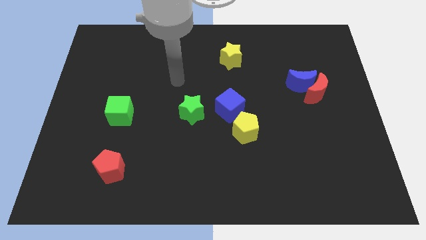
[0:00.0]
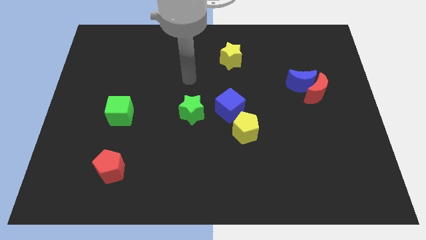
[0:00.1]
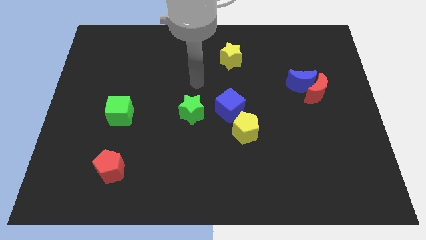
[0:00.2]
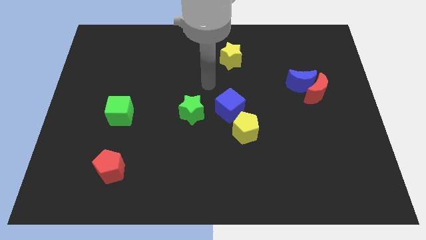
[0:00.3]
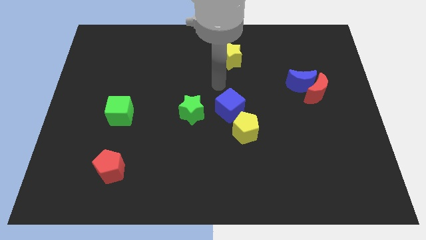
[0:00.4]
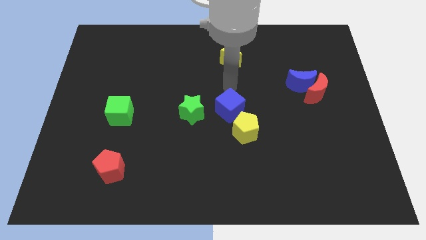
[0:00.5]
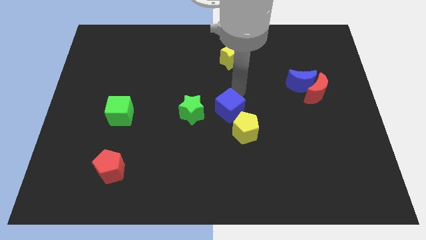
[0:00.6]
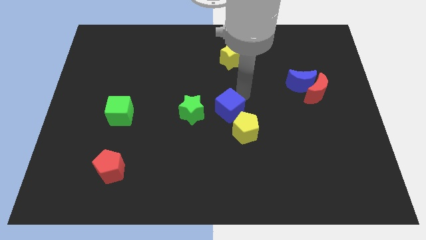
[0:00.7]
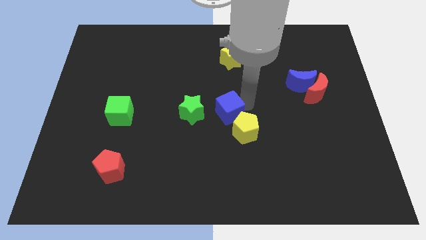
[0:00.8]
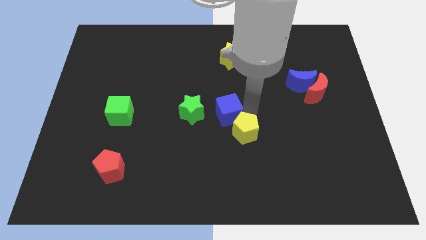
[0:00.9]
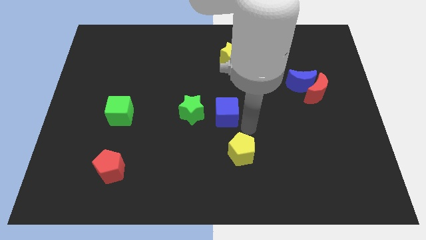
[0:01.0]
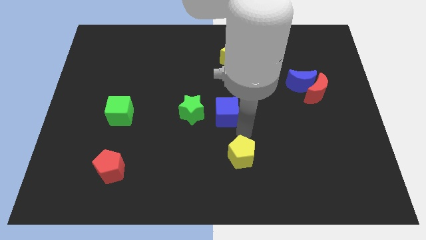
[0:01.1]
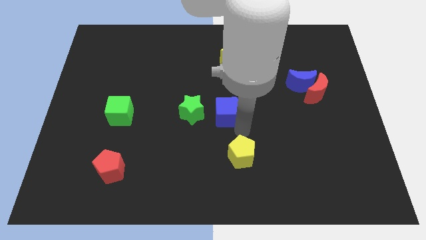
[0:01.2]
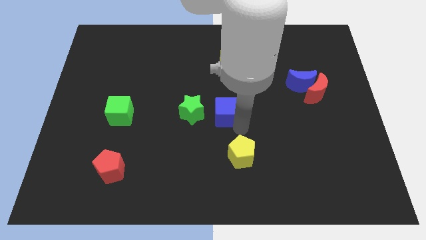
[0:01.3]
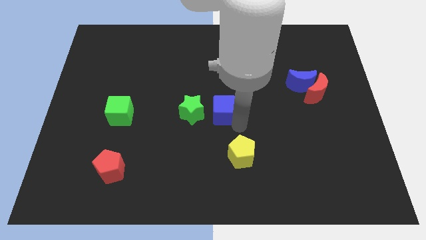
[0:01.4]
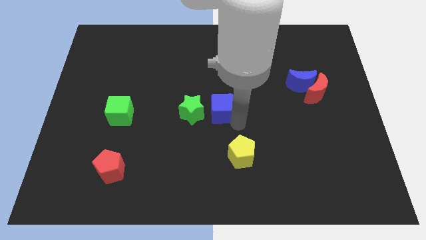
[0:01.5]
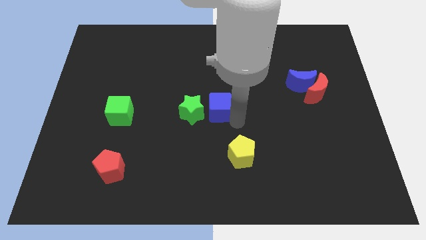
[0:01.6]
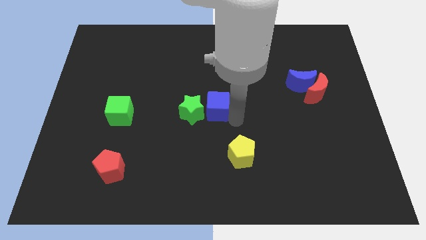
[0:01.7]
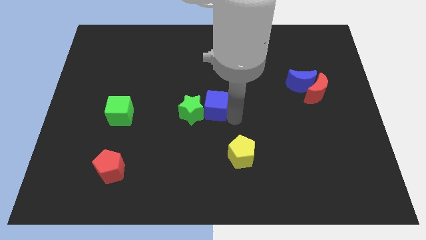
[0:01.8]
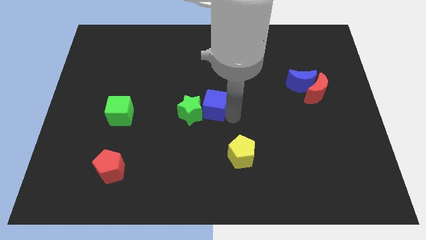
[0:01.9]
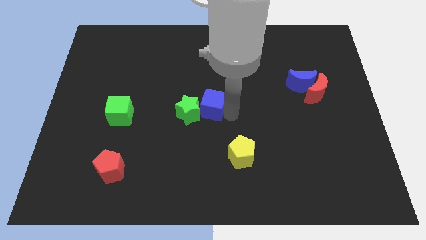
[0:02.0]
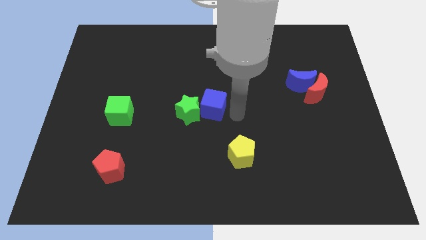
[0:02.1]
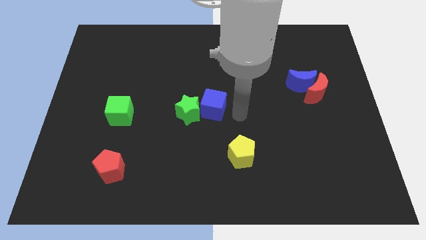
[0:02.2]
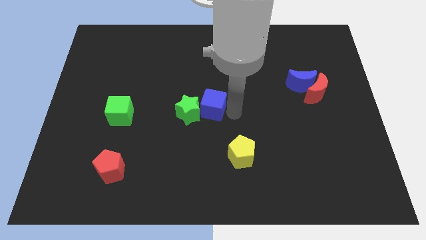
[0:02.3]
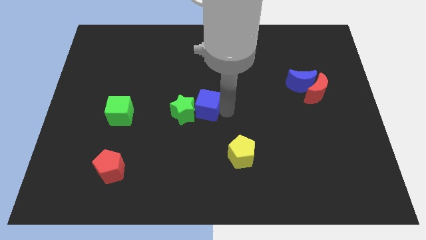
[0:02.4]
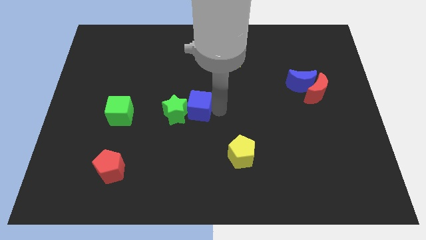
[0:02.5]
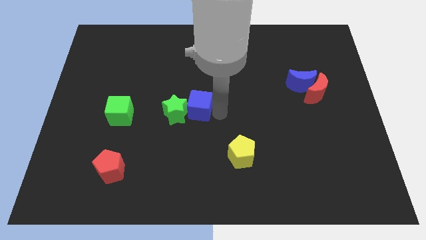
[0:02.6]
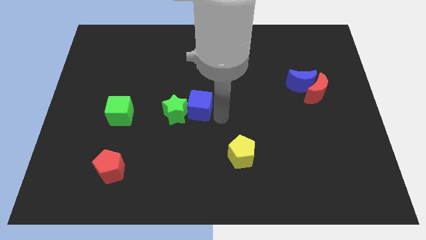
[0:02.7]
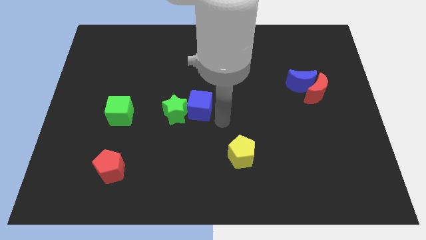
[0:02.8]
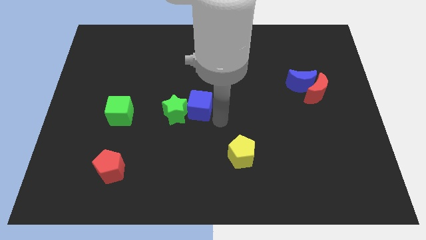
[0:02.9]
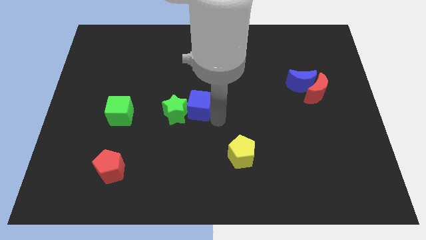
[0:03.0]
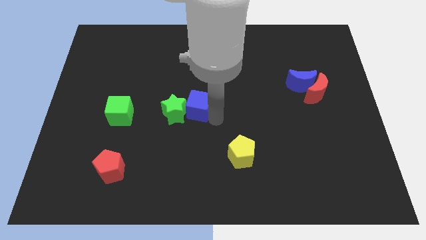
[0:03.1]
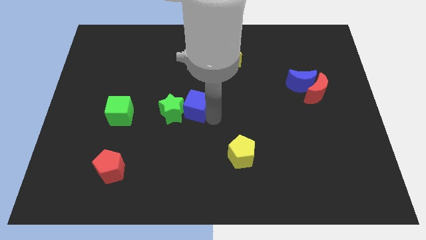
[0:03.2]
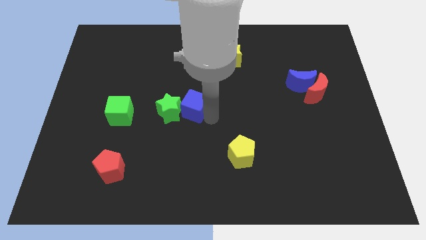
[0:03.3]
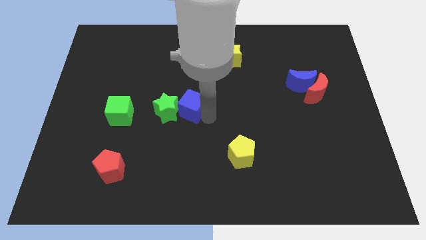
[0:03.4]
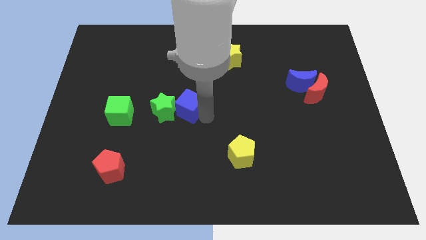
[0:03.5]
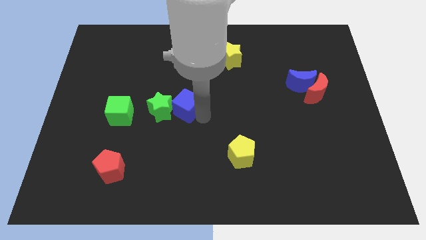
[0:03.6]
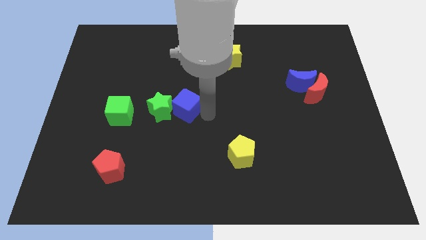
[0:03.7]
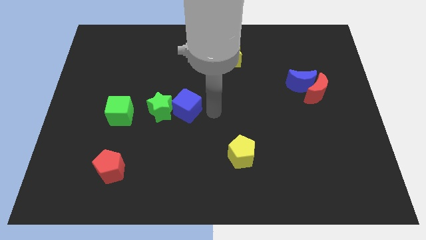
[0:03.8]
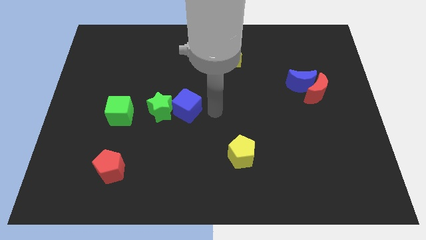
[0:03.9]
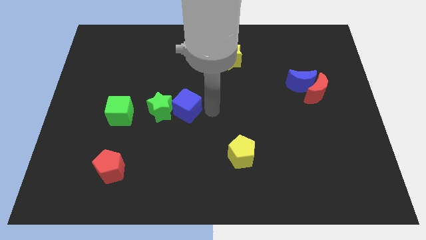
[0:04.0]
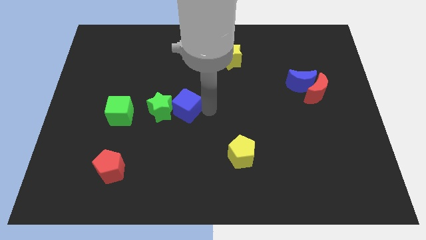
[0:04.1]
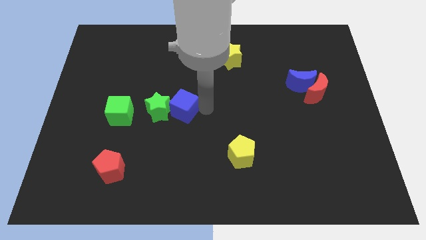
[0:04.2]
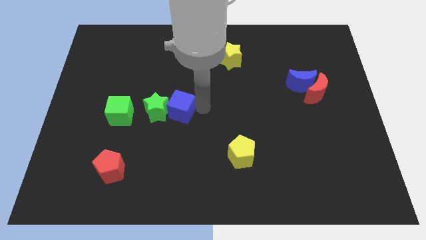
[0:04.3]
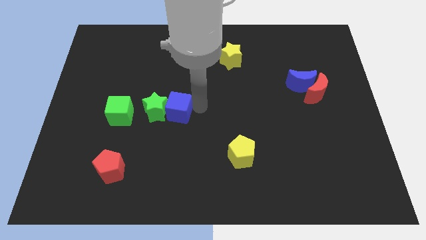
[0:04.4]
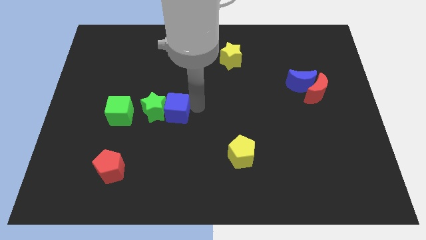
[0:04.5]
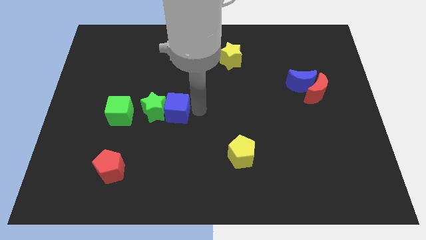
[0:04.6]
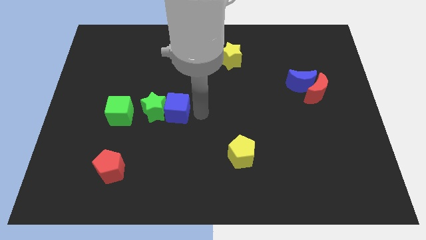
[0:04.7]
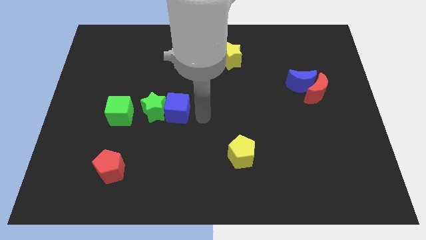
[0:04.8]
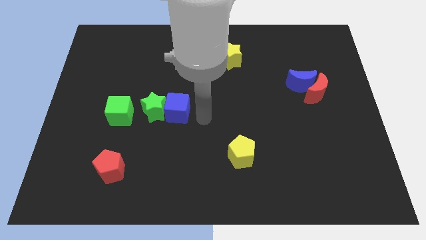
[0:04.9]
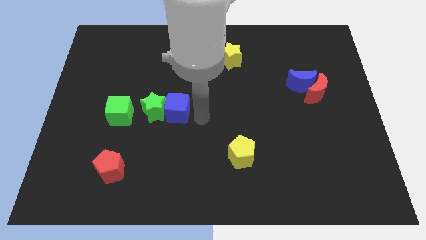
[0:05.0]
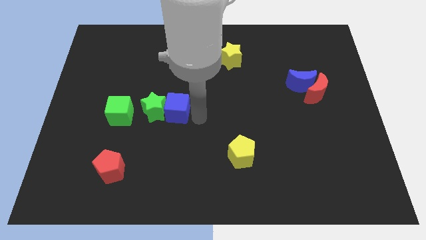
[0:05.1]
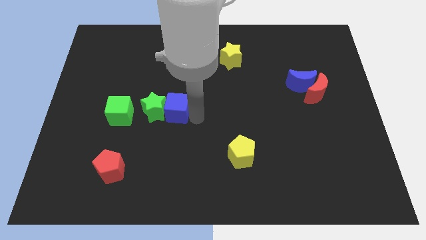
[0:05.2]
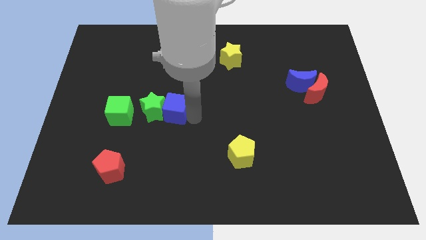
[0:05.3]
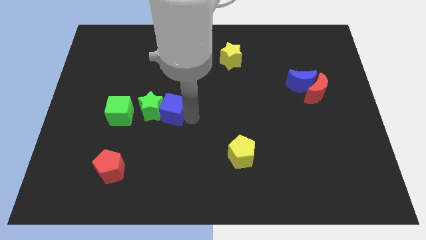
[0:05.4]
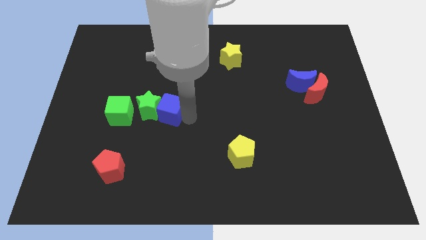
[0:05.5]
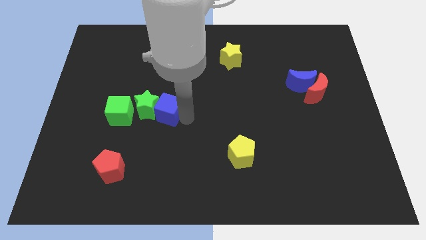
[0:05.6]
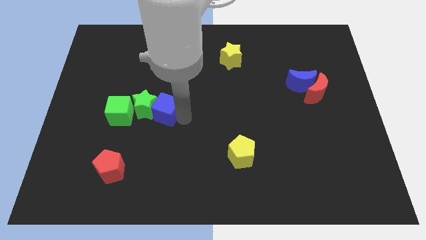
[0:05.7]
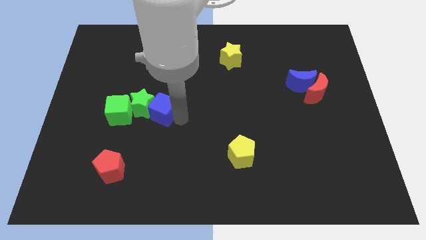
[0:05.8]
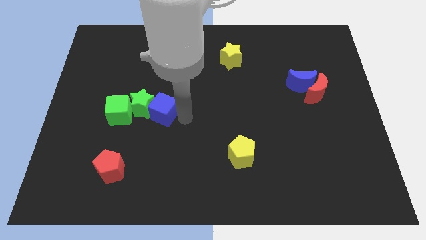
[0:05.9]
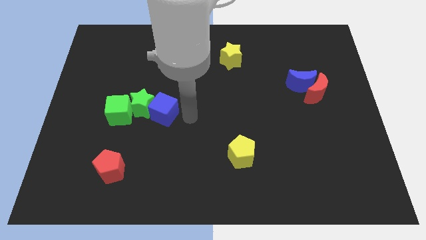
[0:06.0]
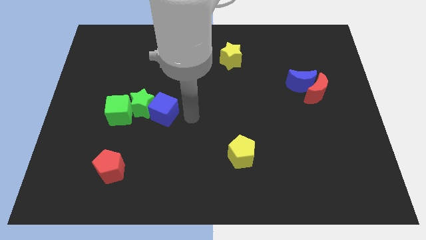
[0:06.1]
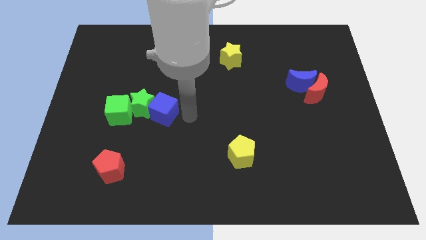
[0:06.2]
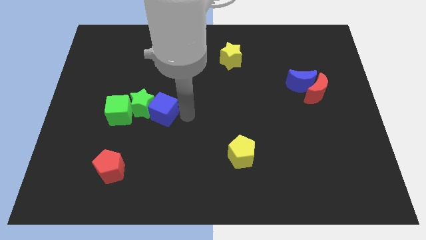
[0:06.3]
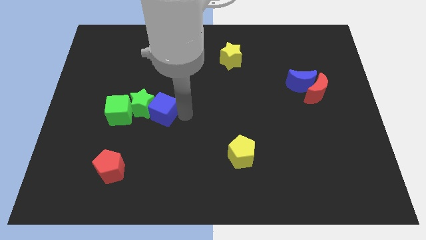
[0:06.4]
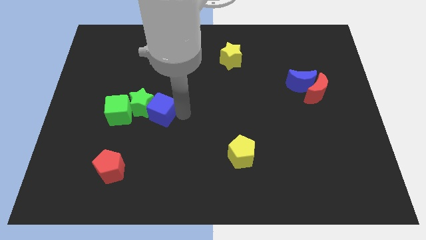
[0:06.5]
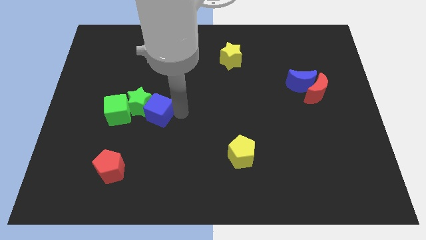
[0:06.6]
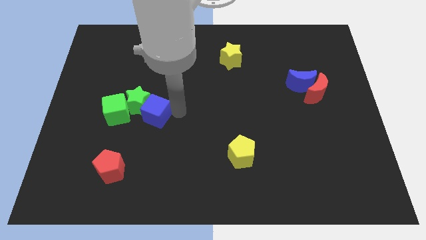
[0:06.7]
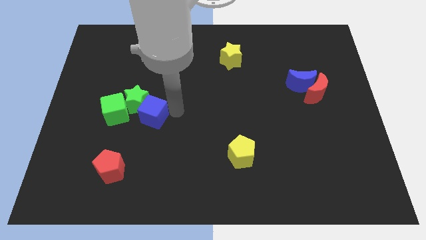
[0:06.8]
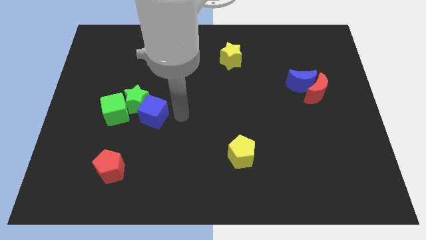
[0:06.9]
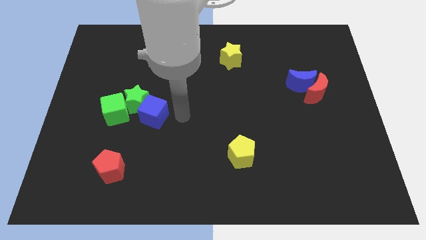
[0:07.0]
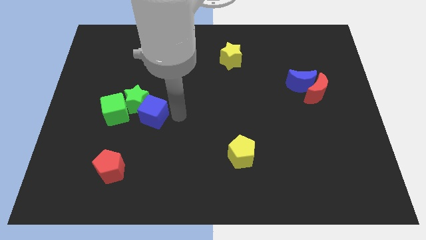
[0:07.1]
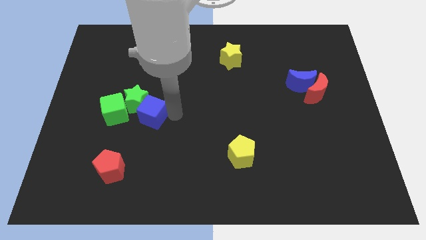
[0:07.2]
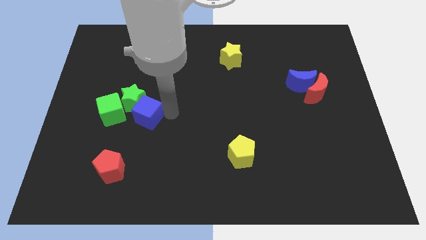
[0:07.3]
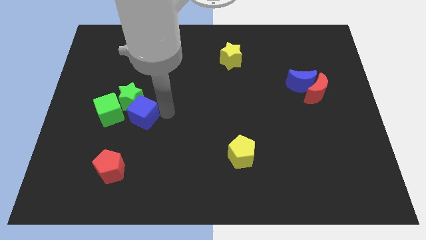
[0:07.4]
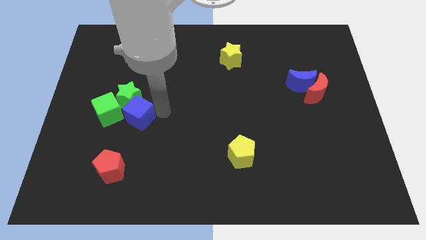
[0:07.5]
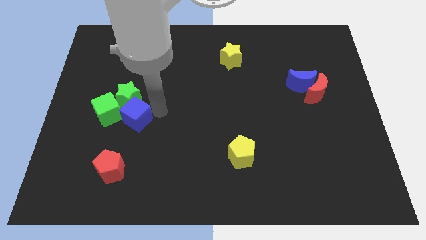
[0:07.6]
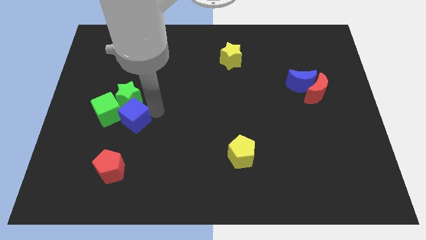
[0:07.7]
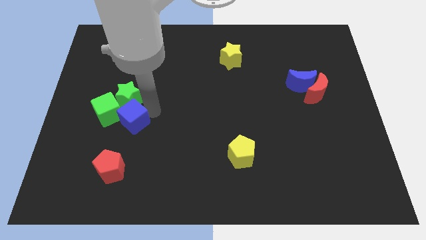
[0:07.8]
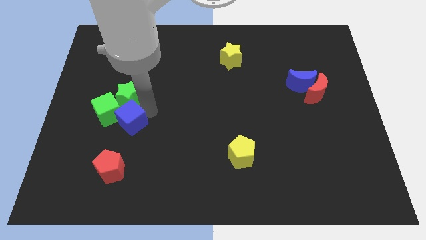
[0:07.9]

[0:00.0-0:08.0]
move the blue cube to the green cube
